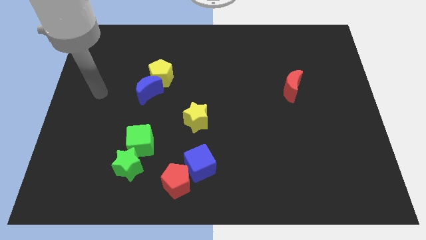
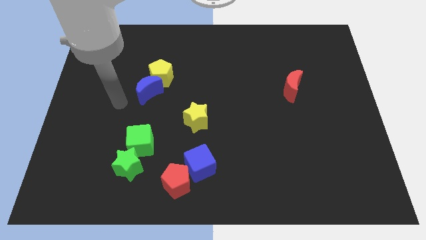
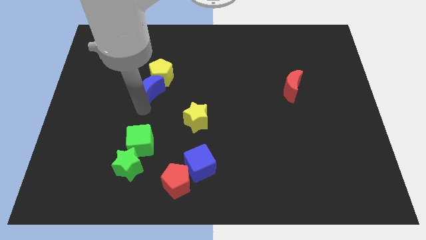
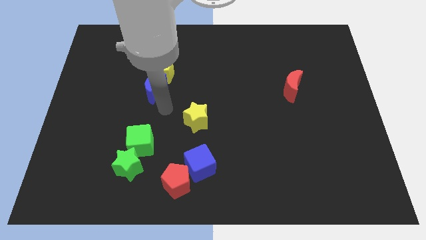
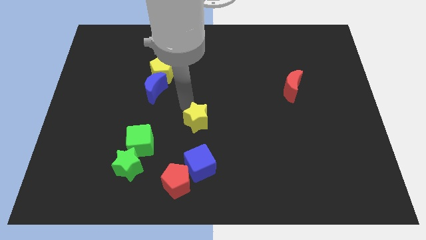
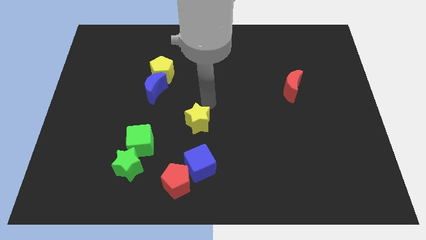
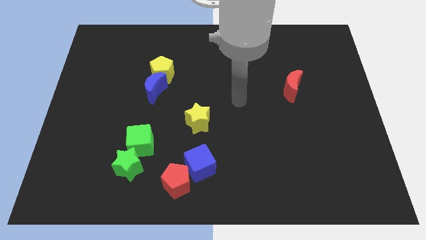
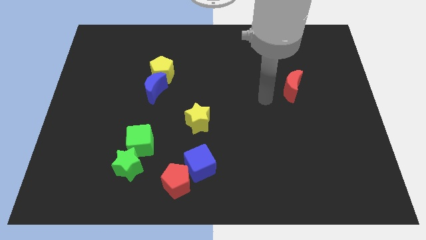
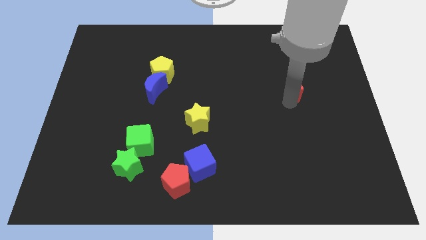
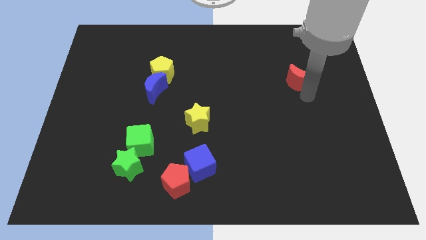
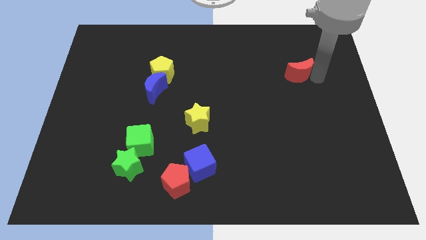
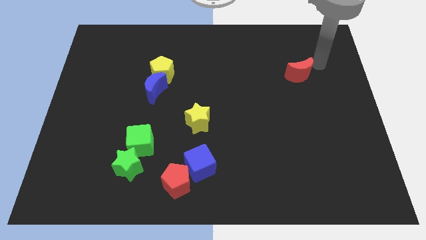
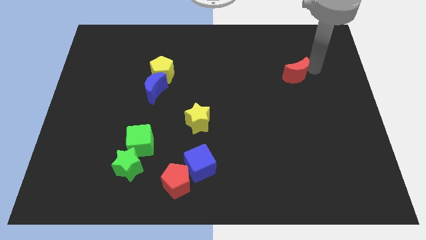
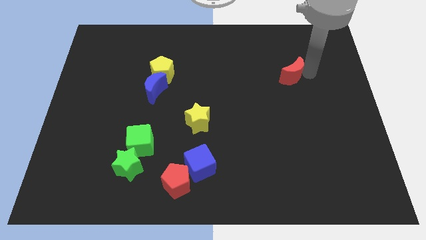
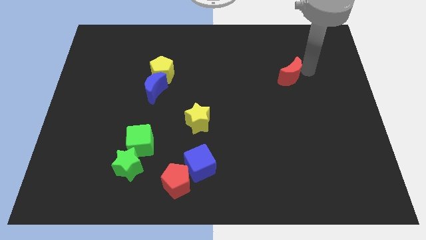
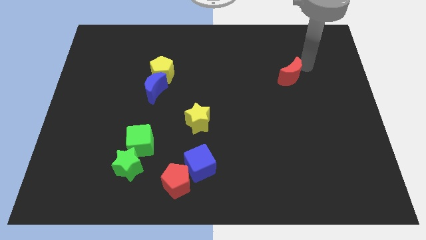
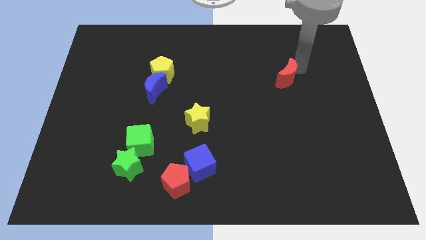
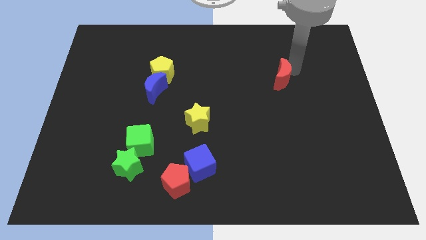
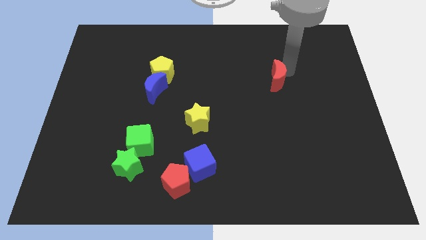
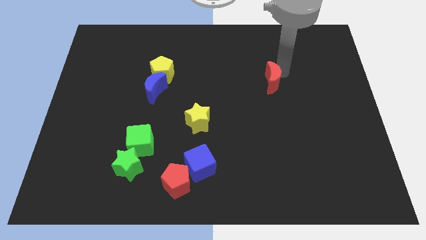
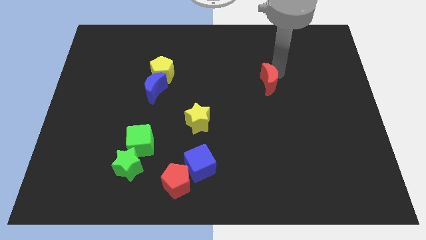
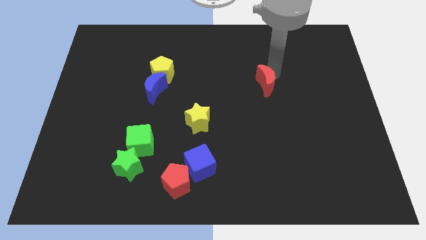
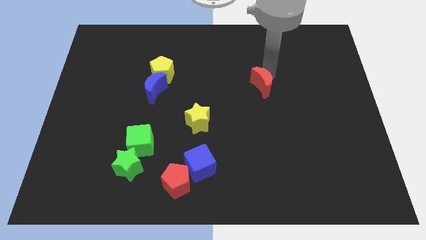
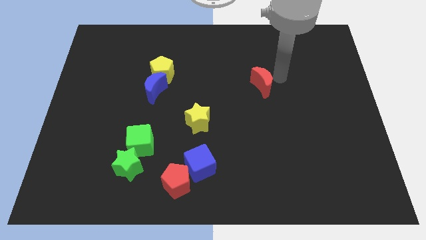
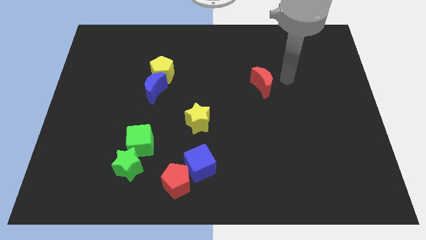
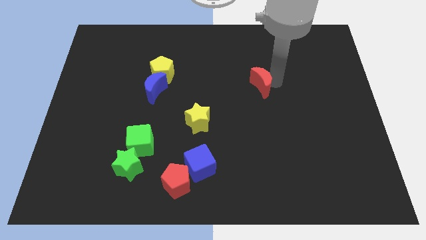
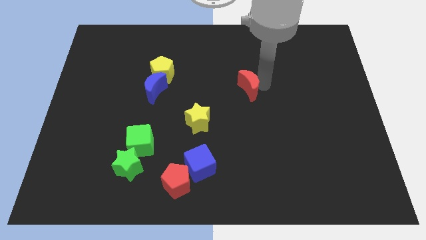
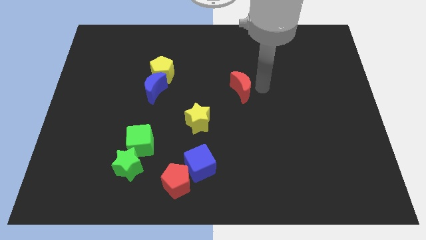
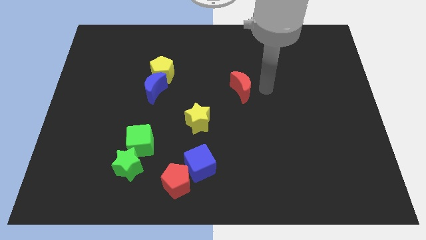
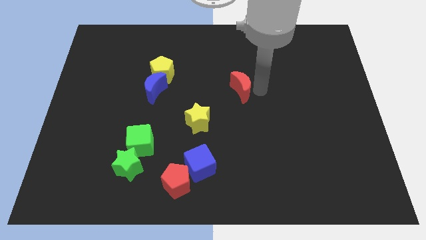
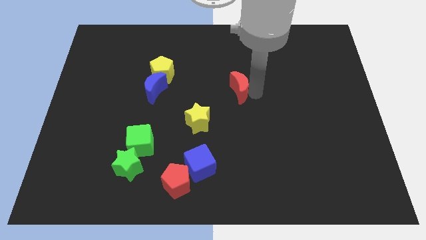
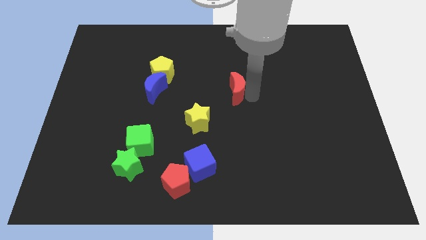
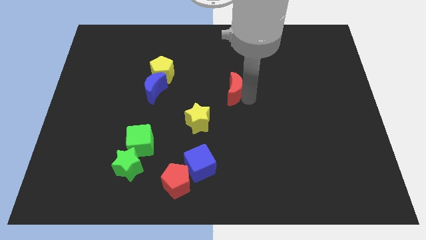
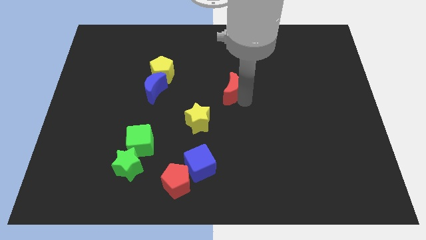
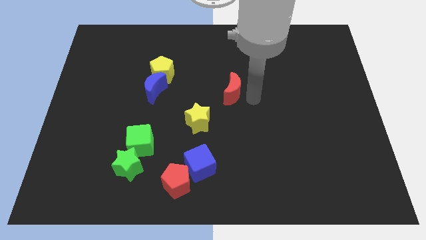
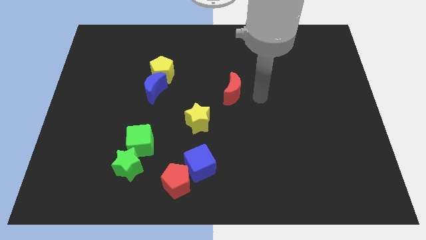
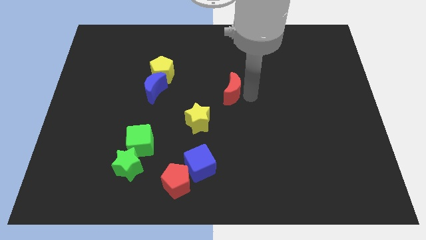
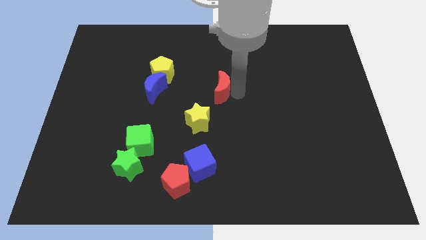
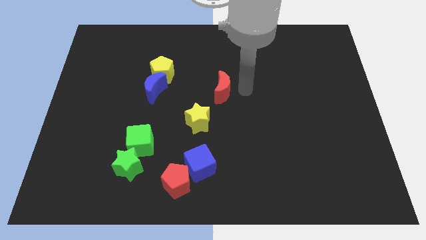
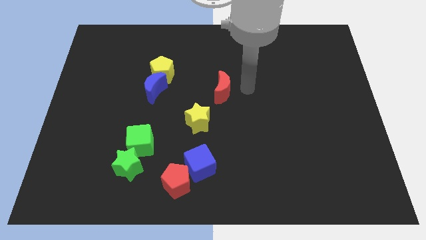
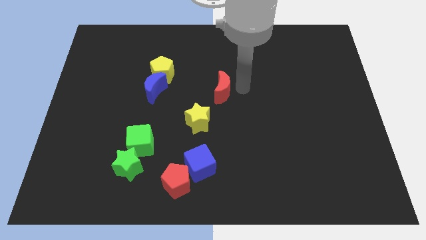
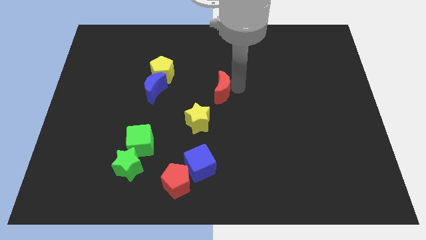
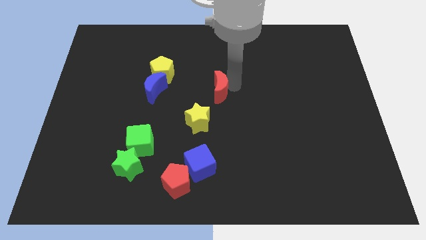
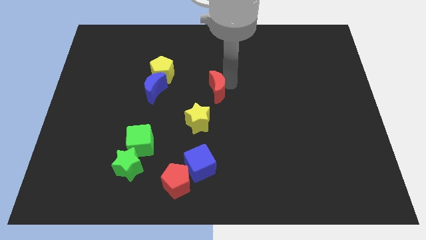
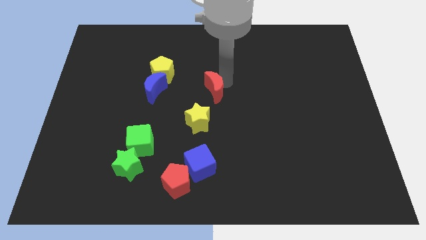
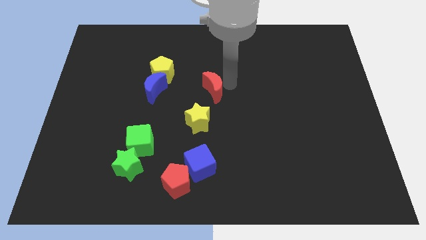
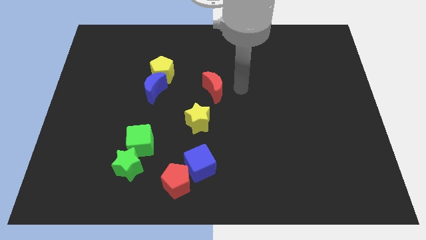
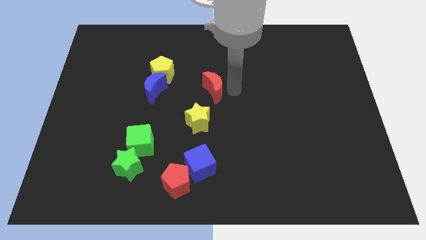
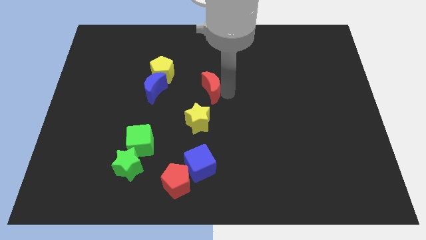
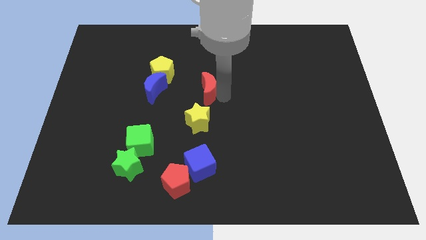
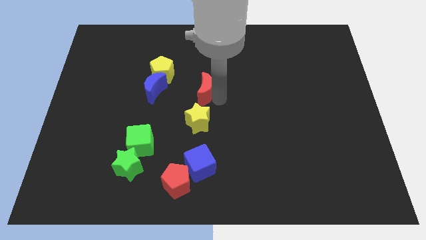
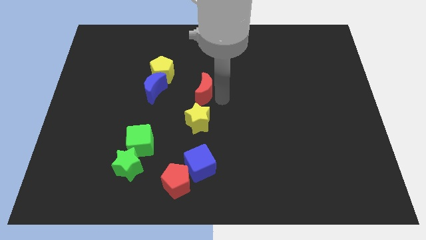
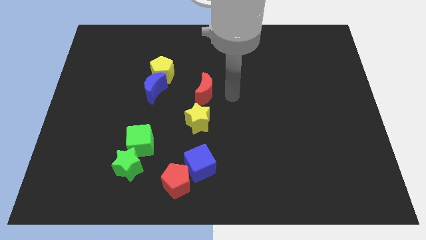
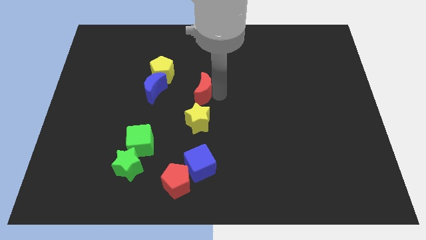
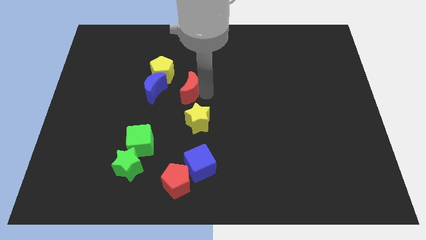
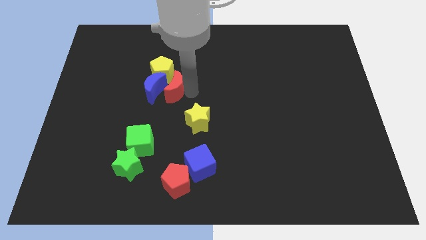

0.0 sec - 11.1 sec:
slide the red moon next to the blue moon

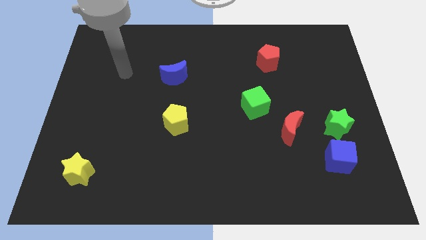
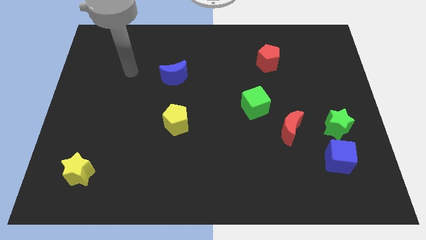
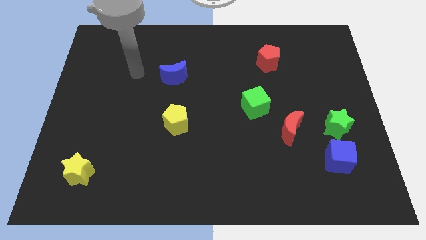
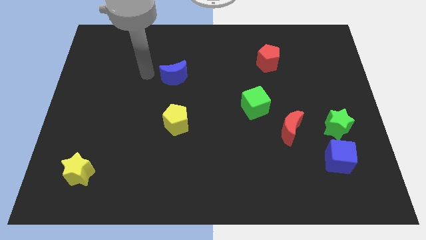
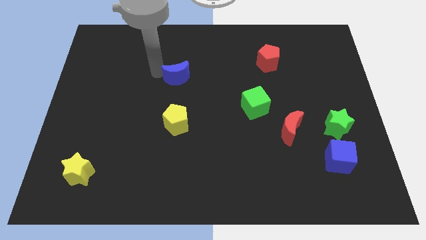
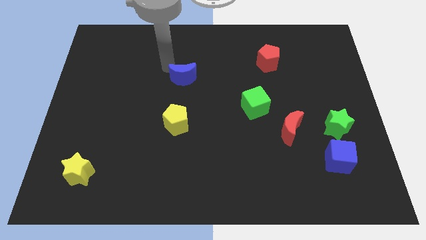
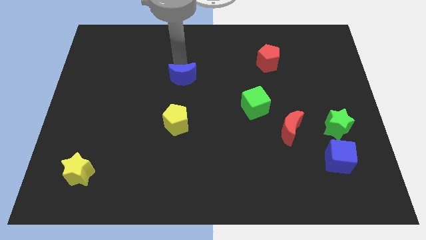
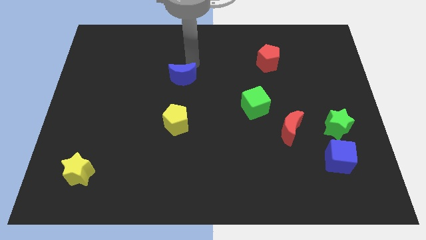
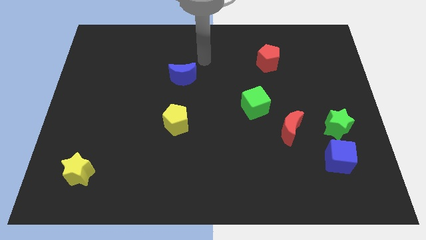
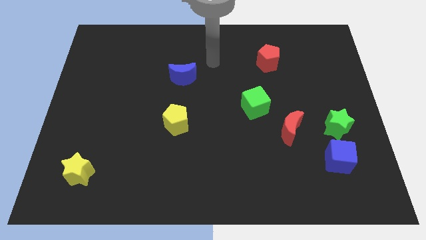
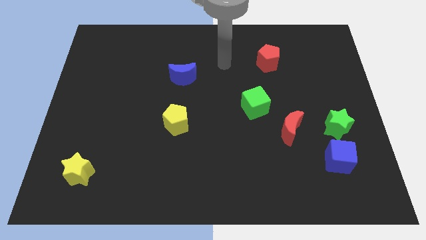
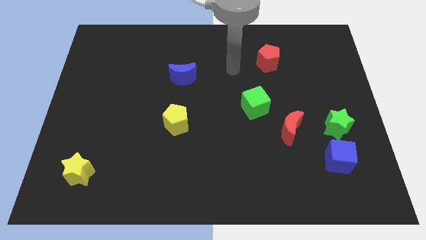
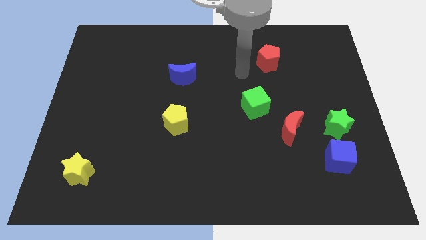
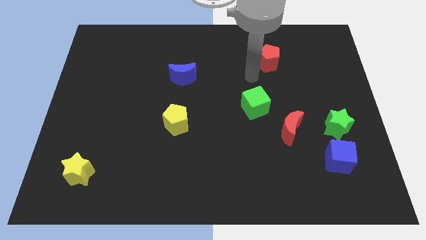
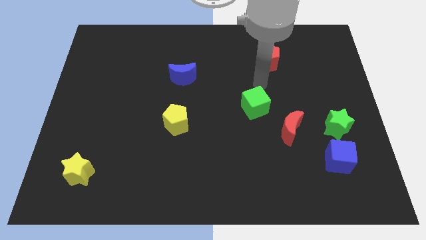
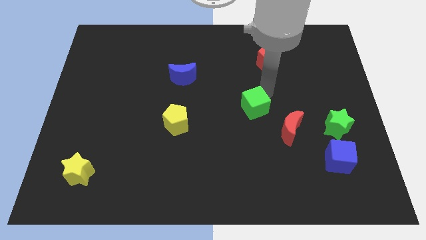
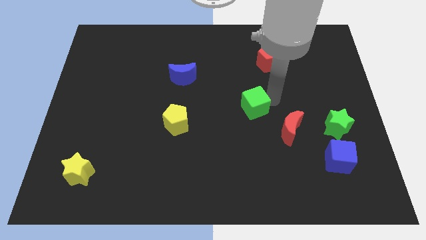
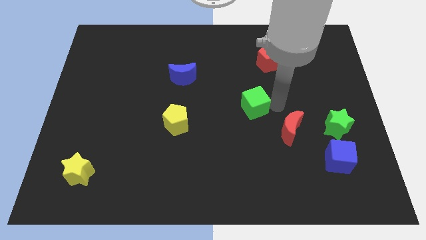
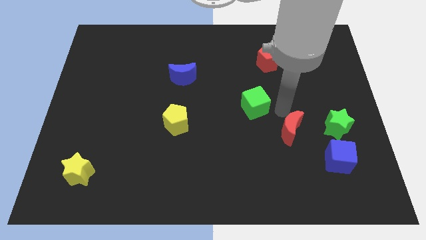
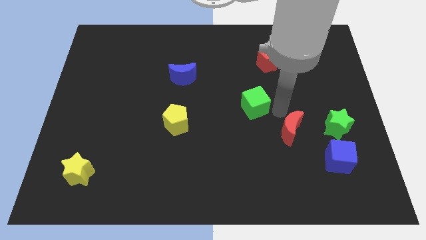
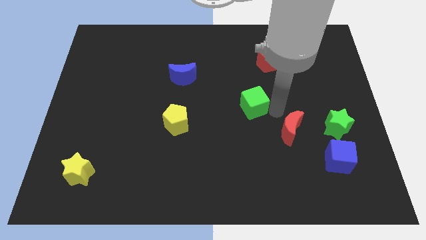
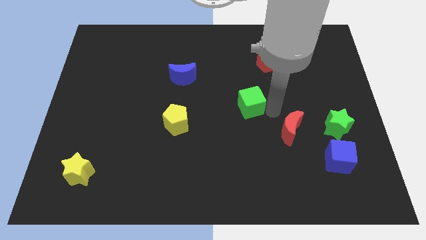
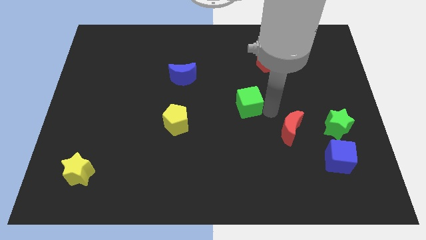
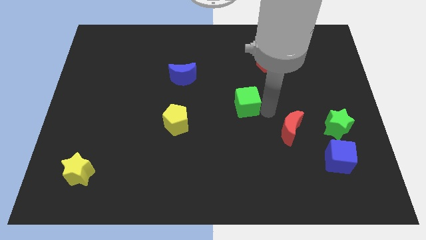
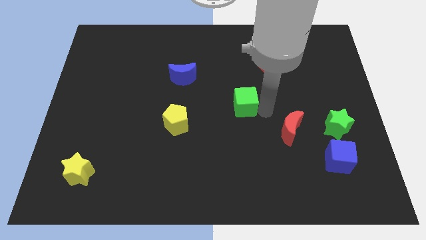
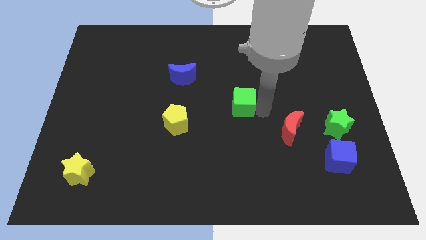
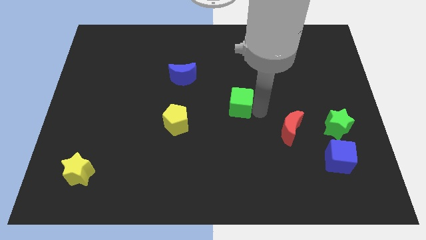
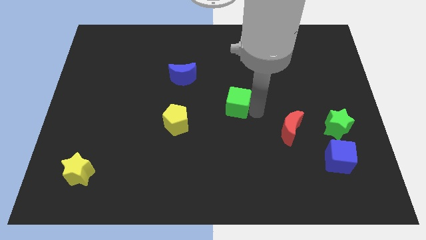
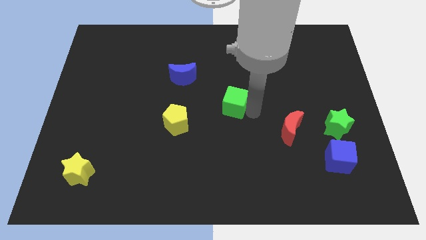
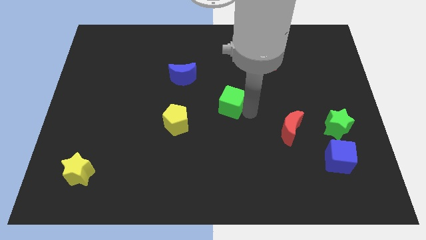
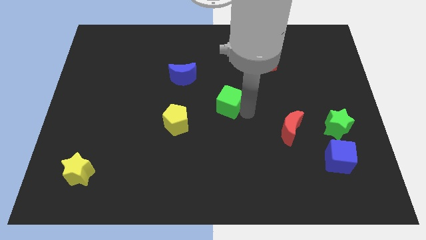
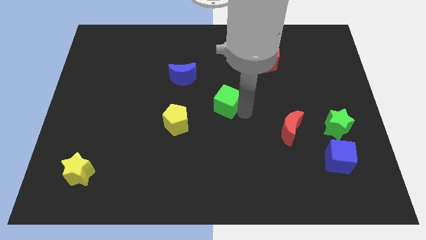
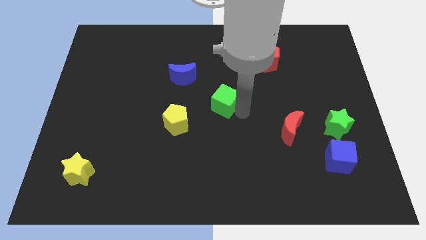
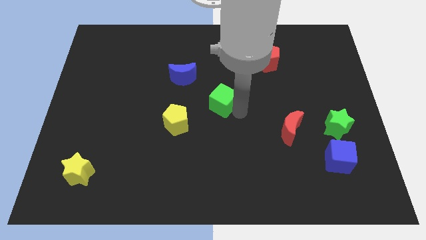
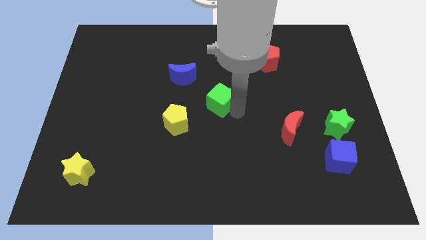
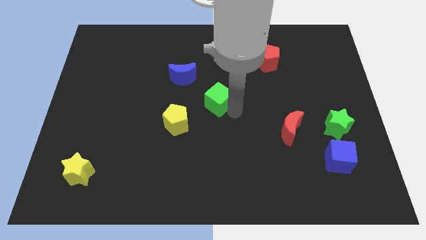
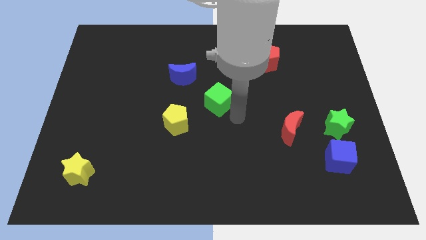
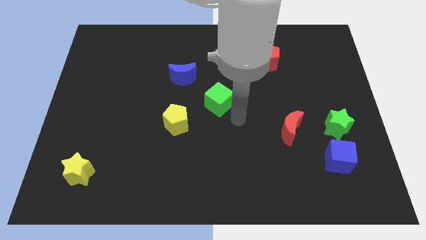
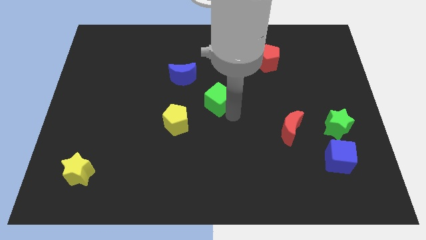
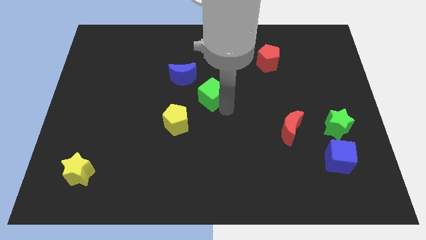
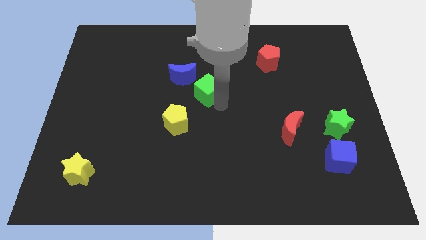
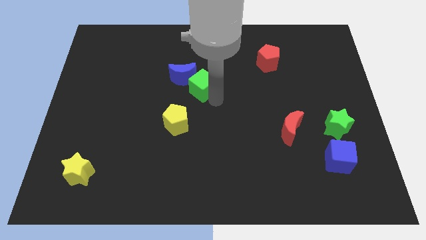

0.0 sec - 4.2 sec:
push the green cube to the blue moon
